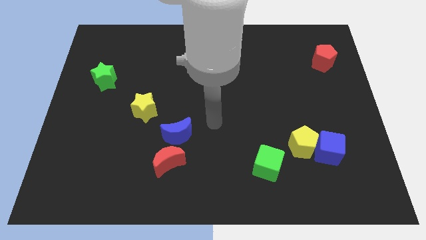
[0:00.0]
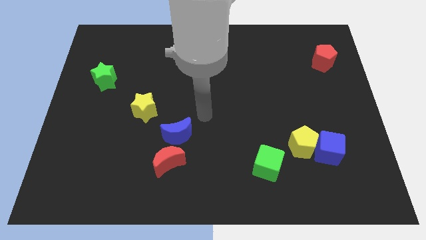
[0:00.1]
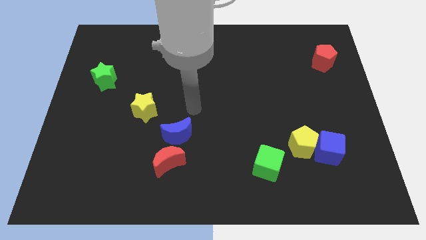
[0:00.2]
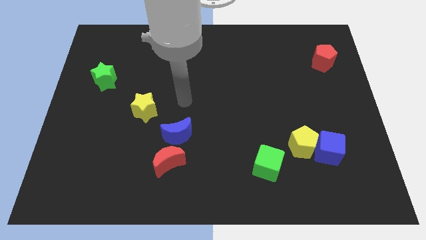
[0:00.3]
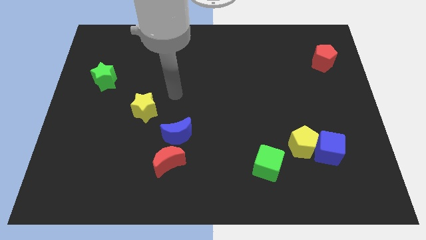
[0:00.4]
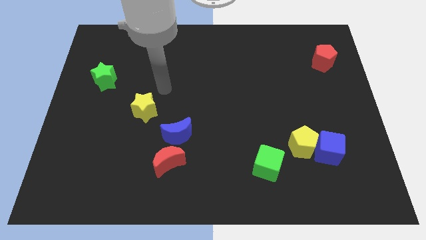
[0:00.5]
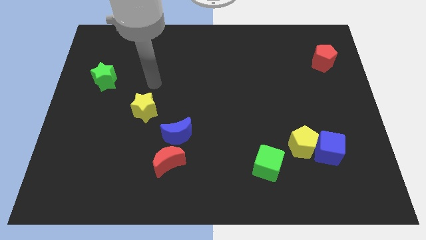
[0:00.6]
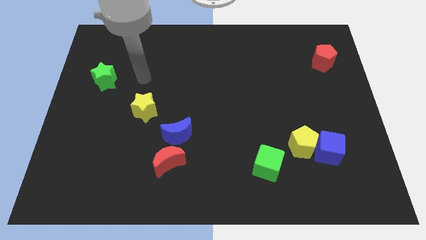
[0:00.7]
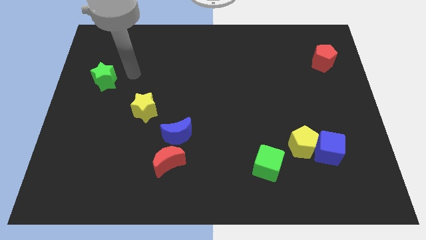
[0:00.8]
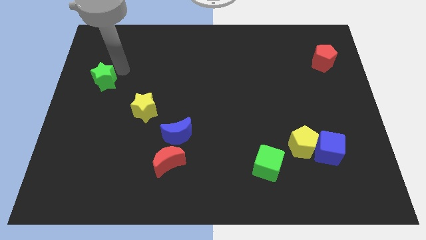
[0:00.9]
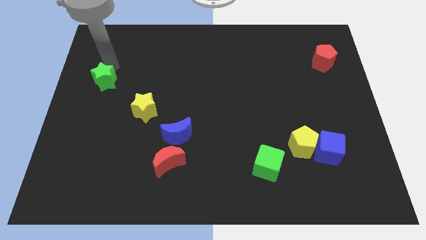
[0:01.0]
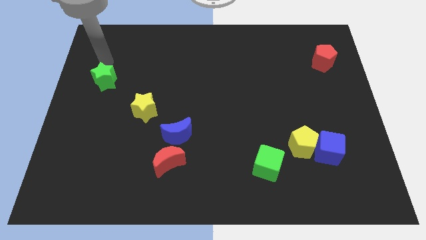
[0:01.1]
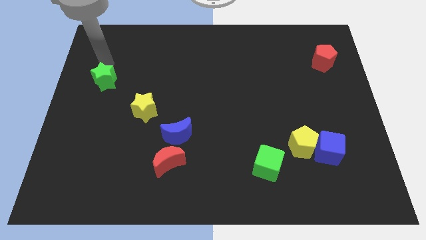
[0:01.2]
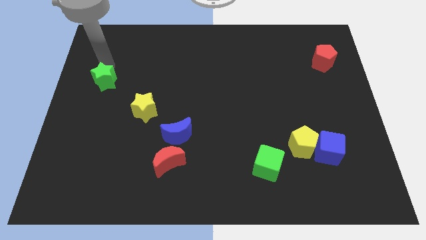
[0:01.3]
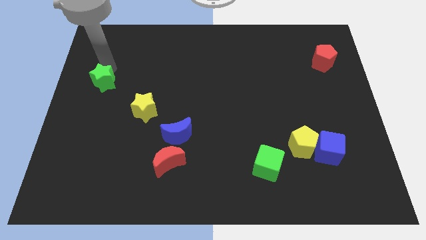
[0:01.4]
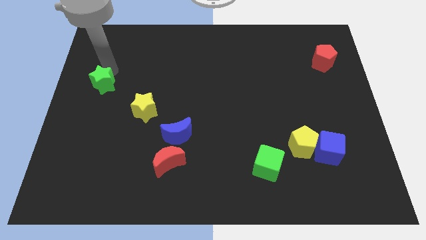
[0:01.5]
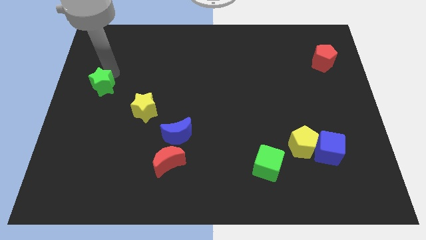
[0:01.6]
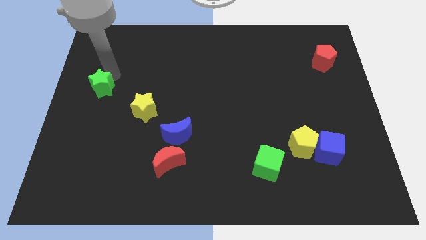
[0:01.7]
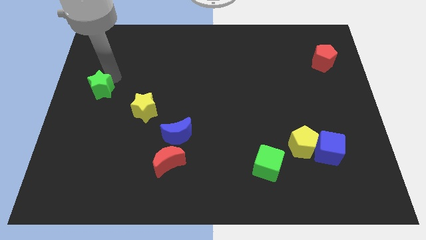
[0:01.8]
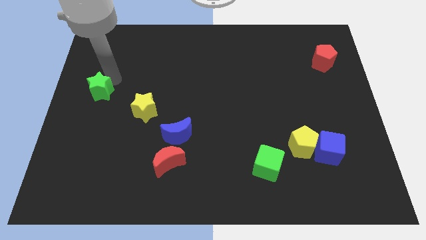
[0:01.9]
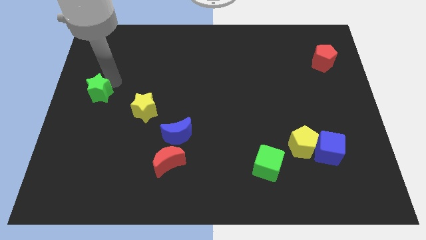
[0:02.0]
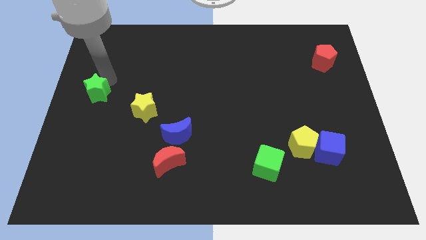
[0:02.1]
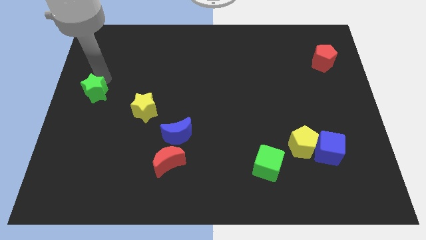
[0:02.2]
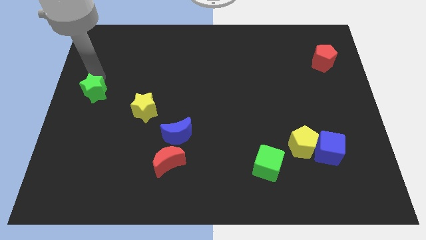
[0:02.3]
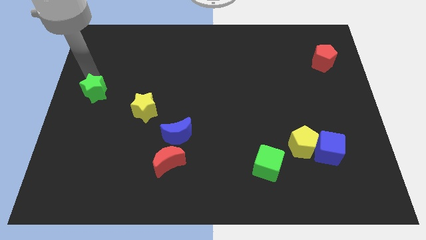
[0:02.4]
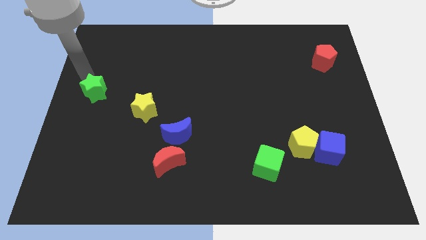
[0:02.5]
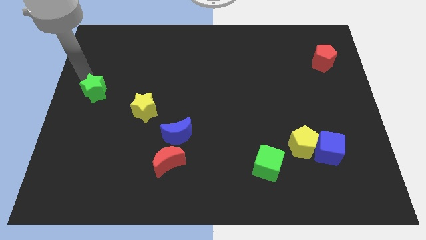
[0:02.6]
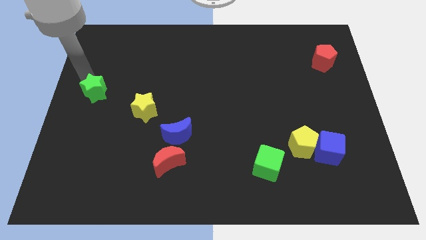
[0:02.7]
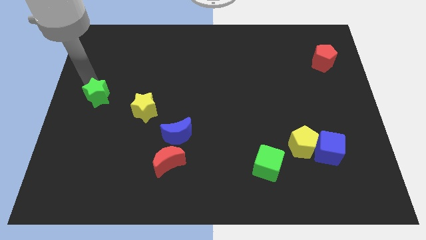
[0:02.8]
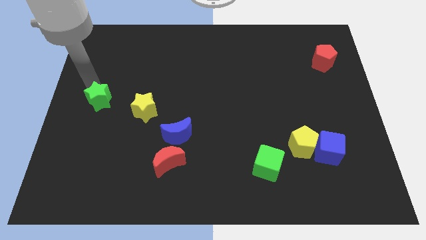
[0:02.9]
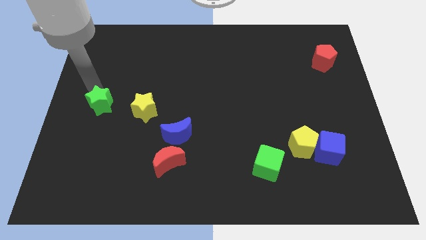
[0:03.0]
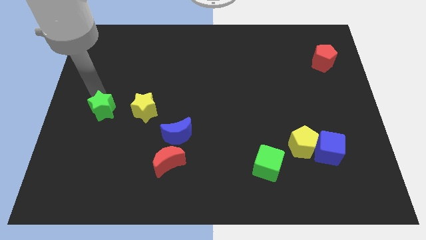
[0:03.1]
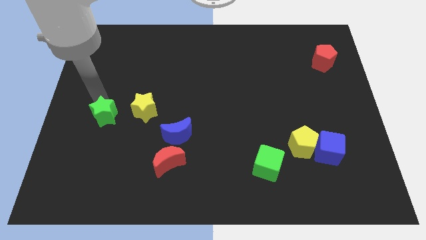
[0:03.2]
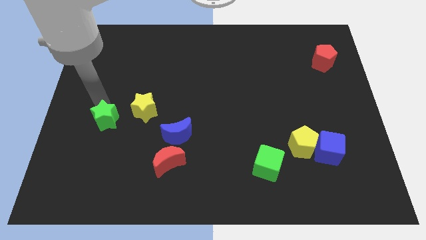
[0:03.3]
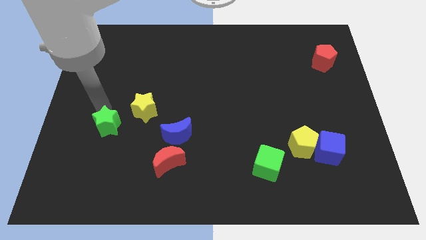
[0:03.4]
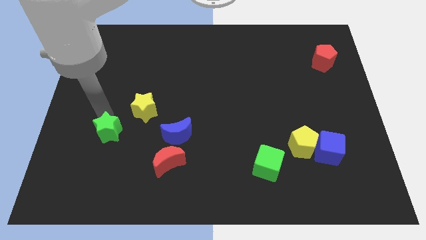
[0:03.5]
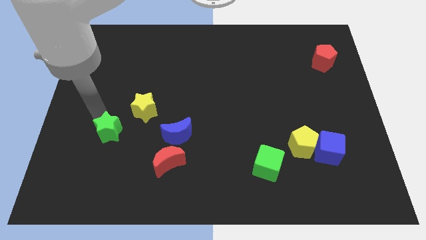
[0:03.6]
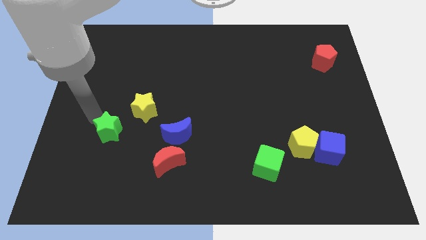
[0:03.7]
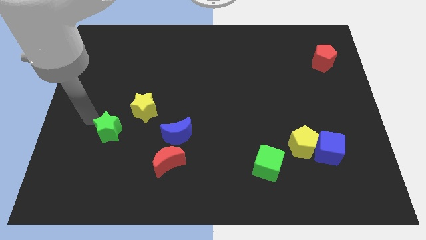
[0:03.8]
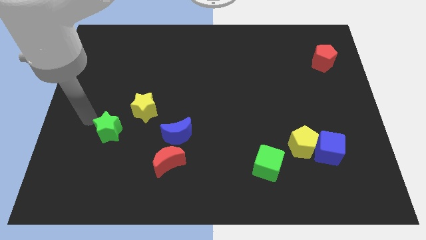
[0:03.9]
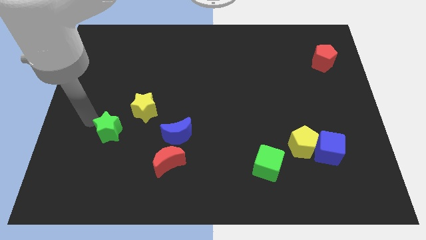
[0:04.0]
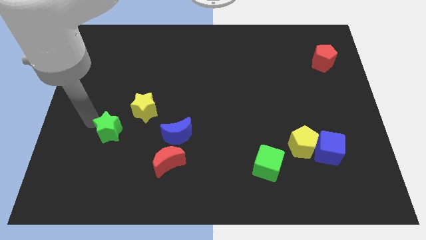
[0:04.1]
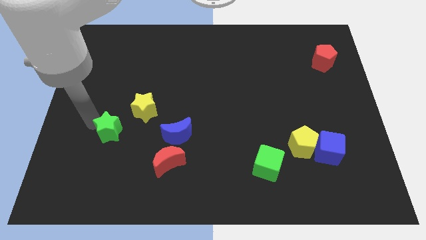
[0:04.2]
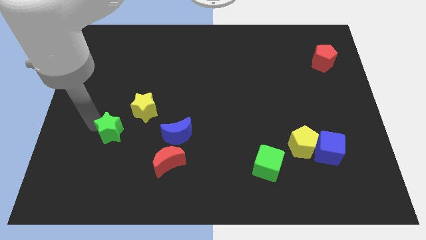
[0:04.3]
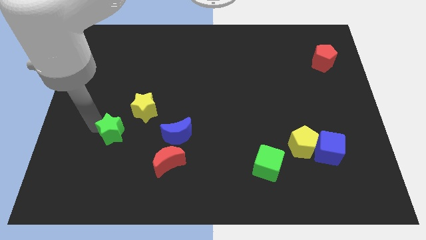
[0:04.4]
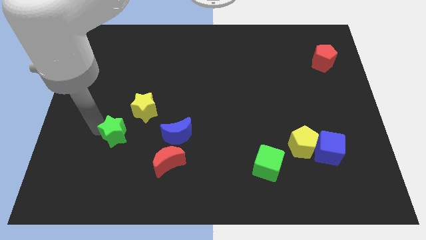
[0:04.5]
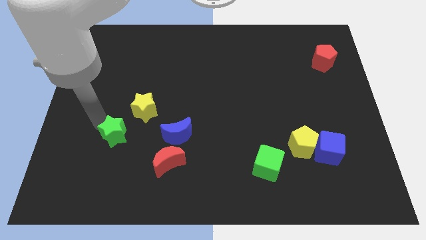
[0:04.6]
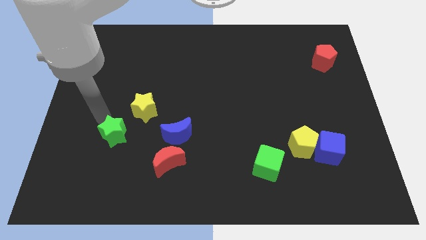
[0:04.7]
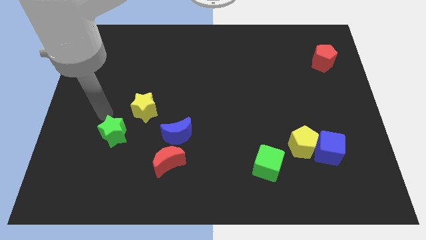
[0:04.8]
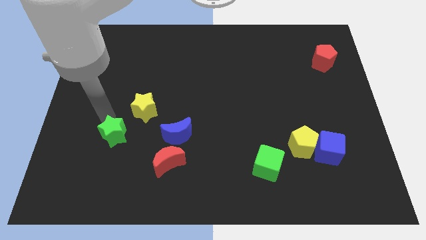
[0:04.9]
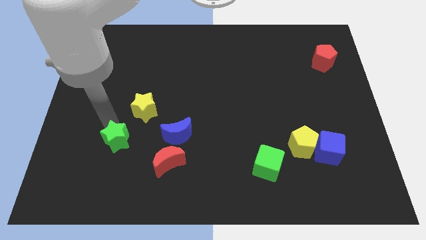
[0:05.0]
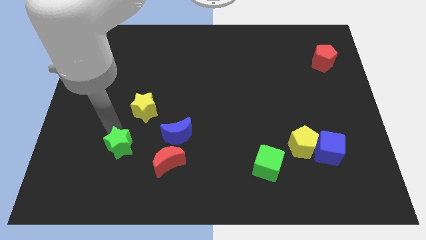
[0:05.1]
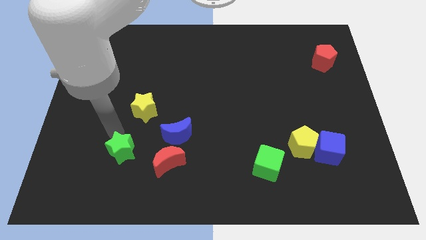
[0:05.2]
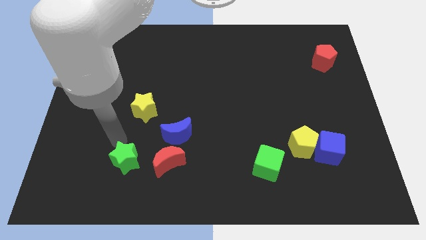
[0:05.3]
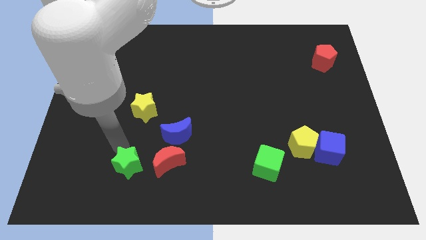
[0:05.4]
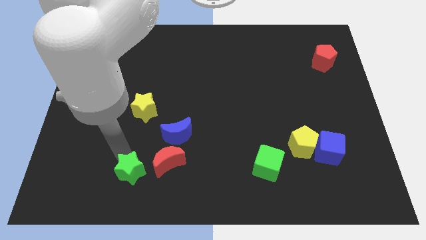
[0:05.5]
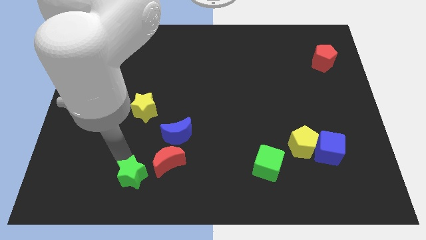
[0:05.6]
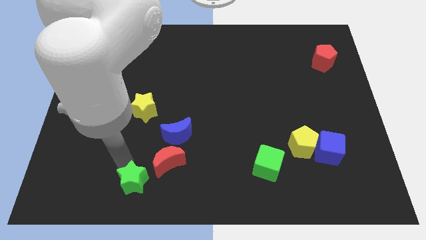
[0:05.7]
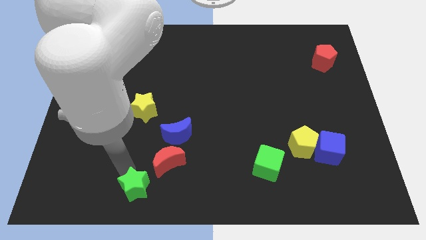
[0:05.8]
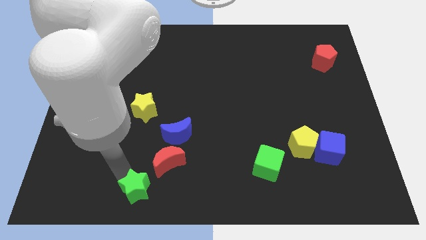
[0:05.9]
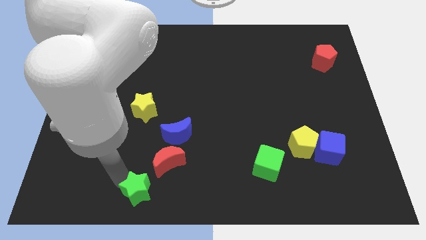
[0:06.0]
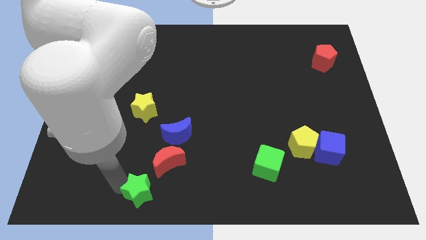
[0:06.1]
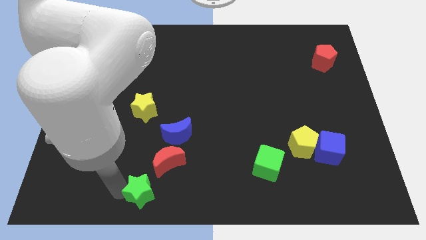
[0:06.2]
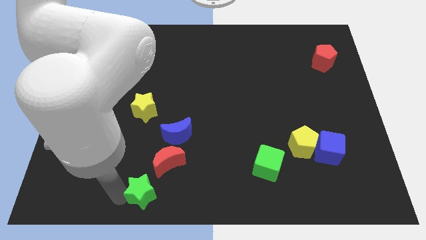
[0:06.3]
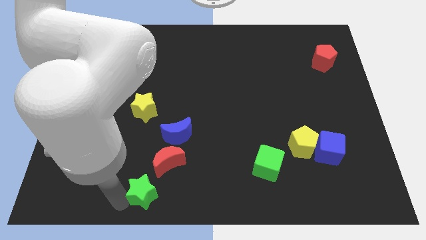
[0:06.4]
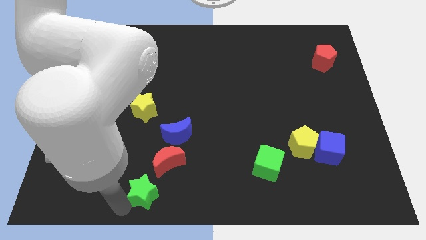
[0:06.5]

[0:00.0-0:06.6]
move the green star to the bottom
